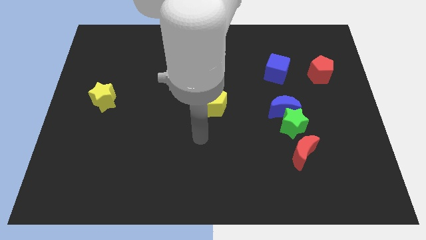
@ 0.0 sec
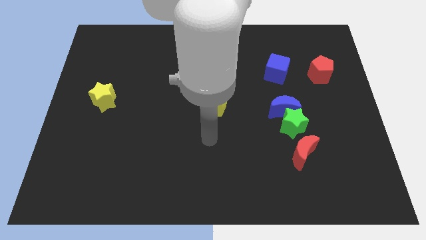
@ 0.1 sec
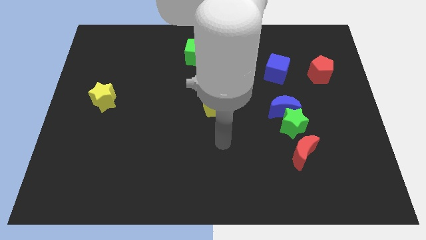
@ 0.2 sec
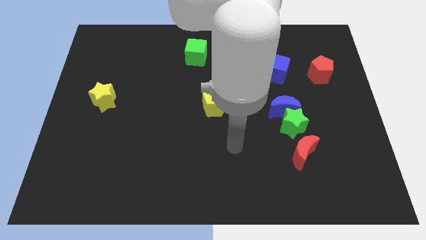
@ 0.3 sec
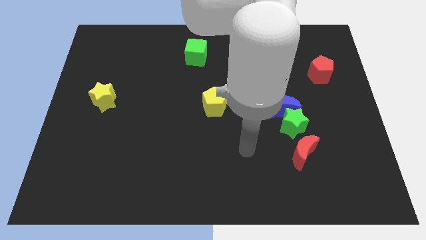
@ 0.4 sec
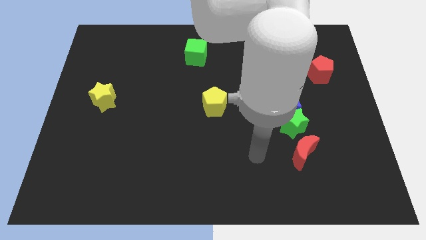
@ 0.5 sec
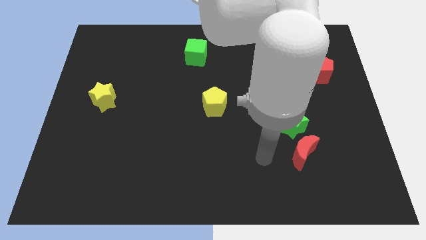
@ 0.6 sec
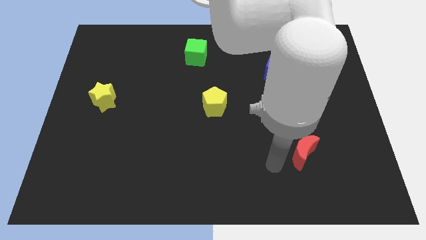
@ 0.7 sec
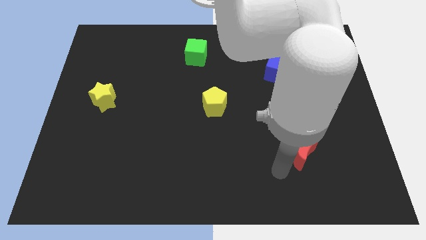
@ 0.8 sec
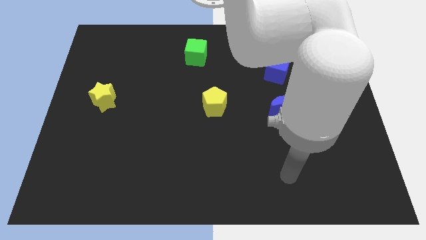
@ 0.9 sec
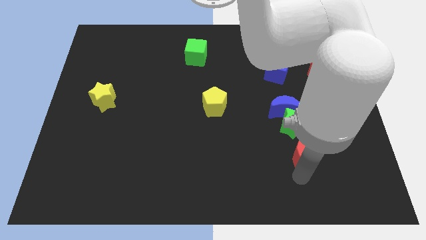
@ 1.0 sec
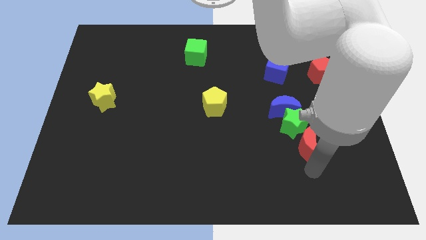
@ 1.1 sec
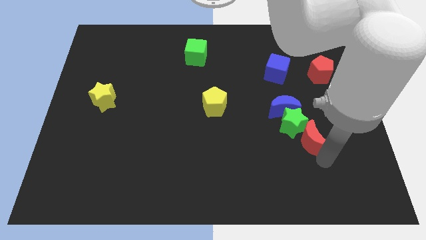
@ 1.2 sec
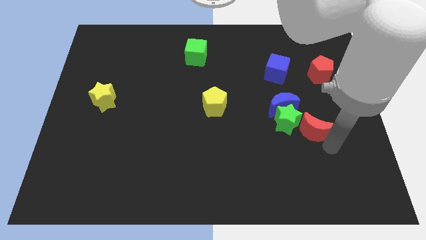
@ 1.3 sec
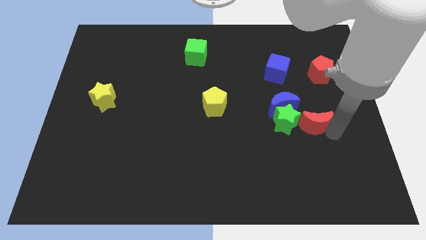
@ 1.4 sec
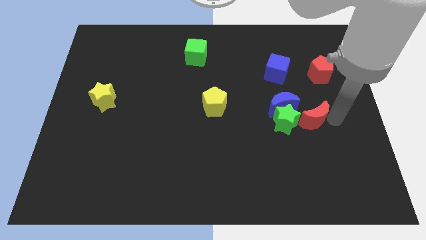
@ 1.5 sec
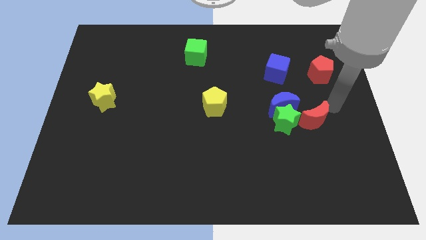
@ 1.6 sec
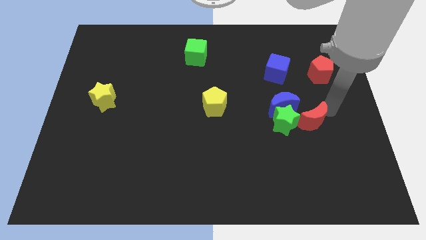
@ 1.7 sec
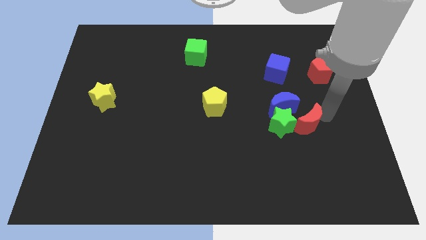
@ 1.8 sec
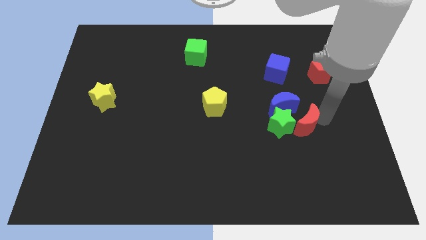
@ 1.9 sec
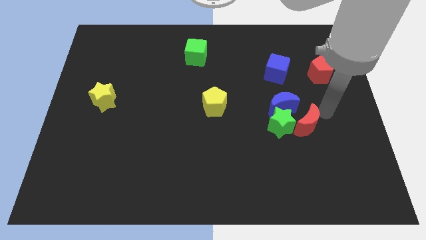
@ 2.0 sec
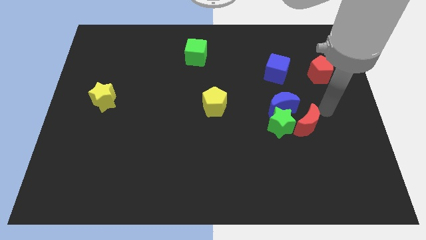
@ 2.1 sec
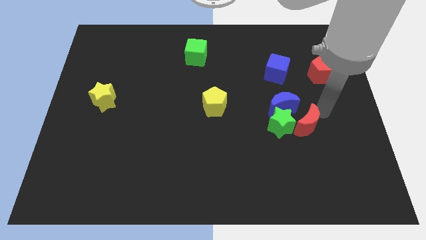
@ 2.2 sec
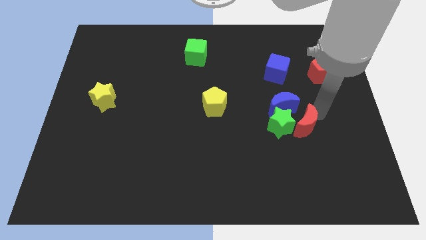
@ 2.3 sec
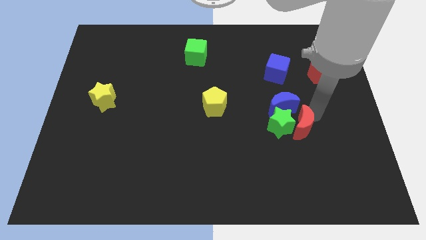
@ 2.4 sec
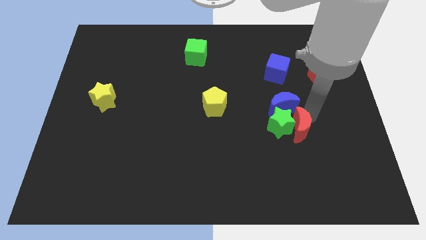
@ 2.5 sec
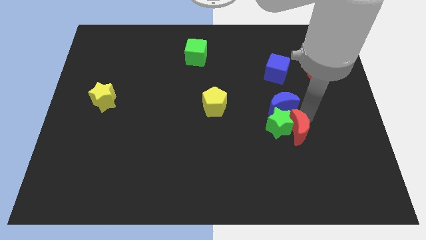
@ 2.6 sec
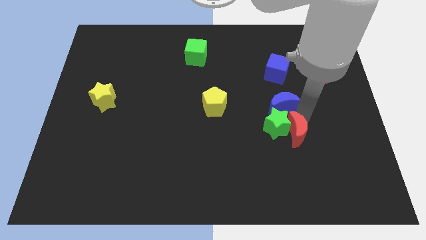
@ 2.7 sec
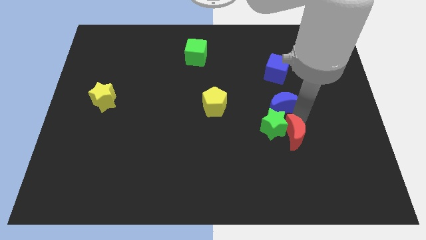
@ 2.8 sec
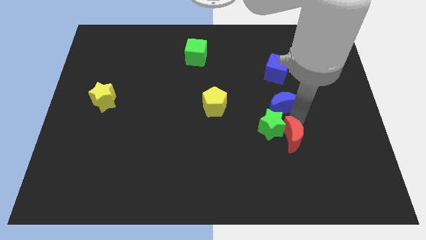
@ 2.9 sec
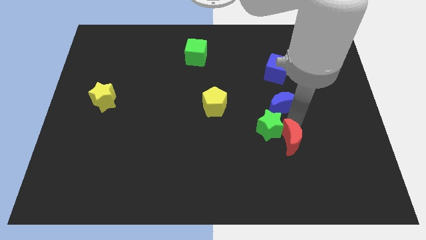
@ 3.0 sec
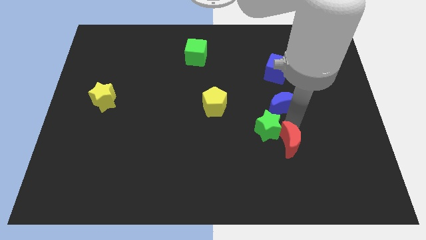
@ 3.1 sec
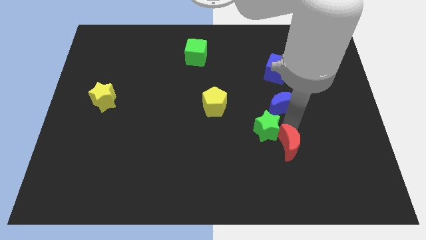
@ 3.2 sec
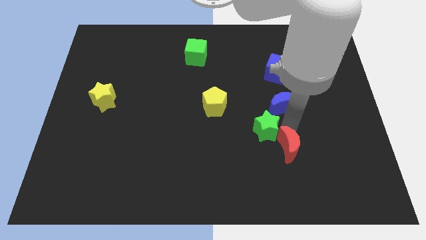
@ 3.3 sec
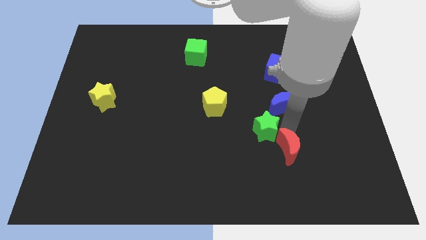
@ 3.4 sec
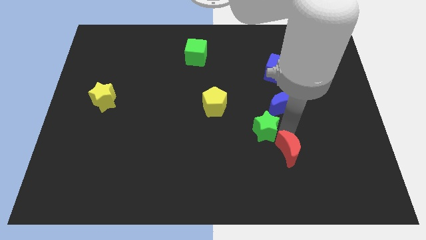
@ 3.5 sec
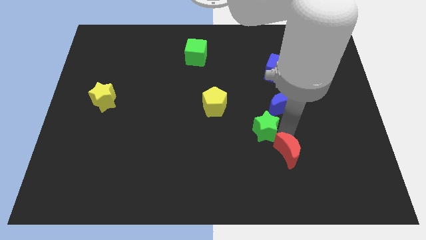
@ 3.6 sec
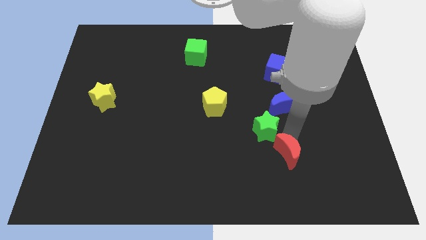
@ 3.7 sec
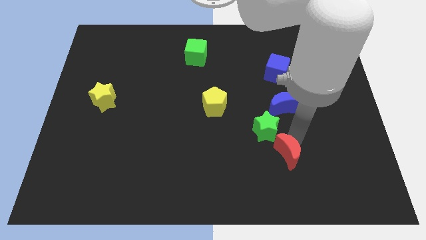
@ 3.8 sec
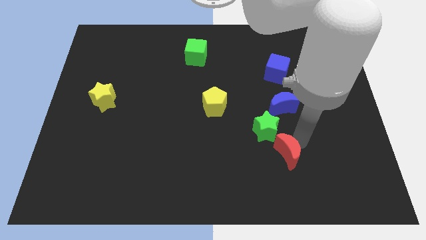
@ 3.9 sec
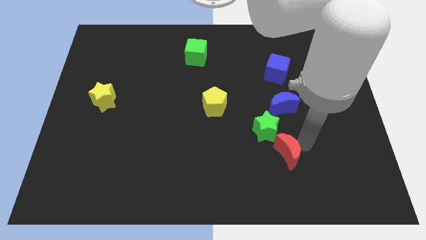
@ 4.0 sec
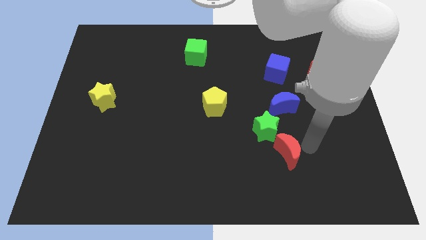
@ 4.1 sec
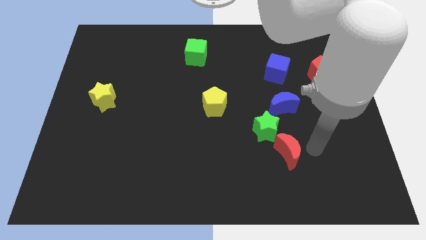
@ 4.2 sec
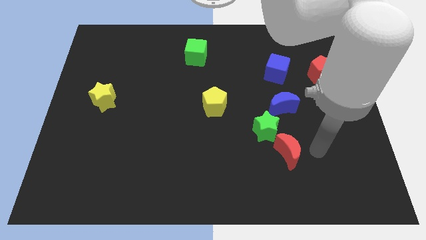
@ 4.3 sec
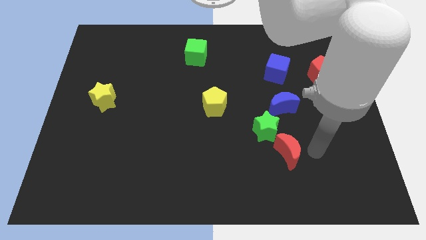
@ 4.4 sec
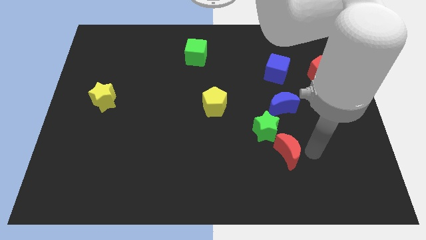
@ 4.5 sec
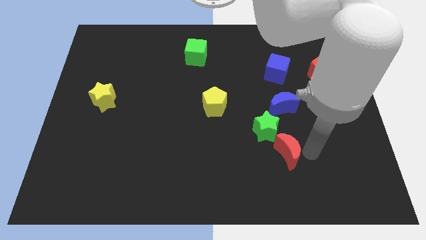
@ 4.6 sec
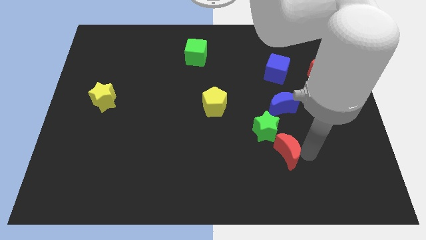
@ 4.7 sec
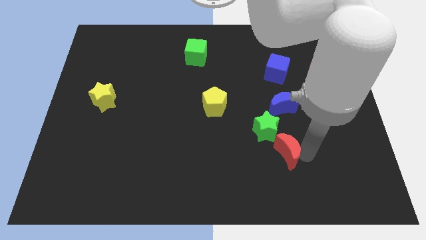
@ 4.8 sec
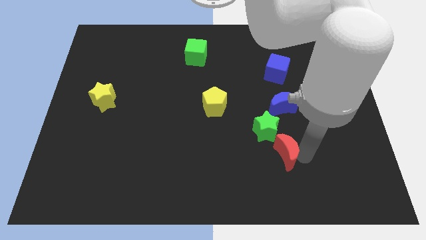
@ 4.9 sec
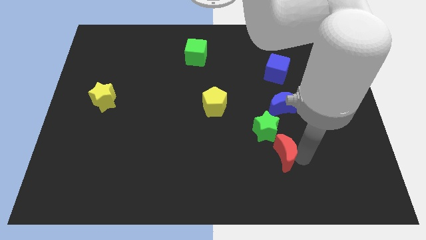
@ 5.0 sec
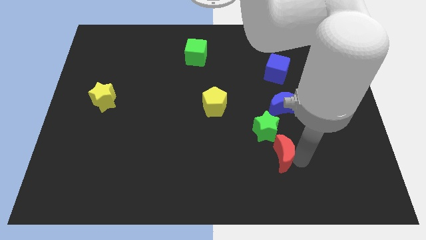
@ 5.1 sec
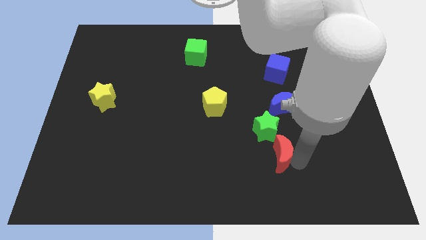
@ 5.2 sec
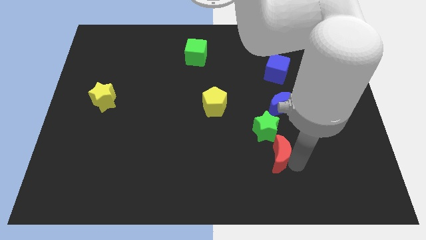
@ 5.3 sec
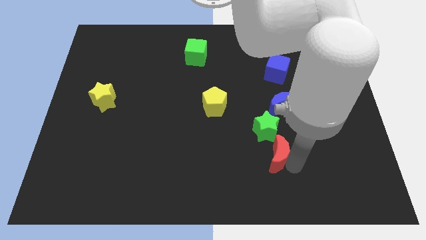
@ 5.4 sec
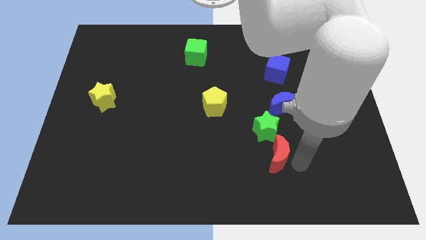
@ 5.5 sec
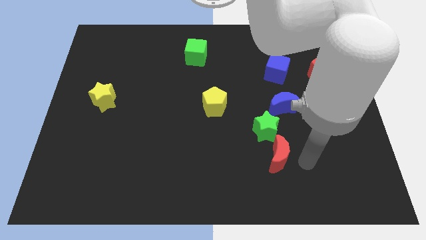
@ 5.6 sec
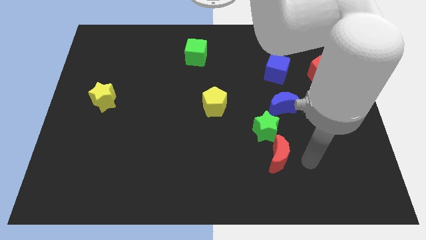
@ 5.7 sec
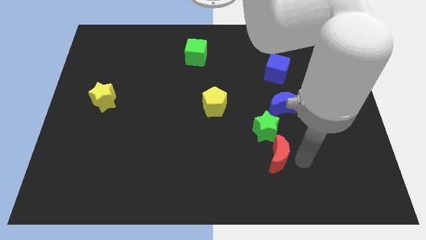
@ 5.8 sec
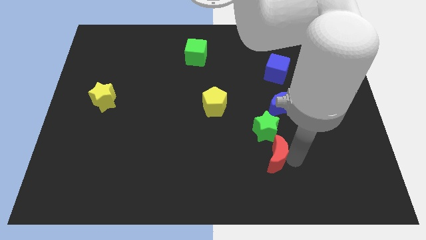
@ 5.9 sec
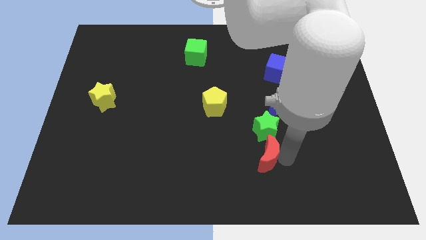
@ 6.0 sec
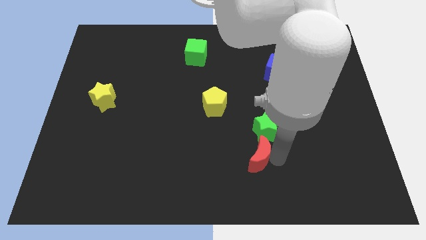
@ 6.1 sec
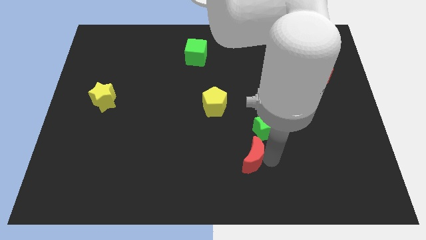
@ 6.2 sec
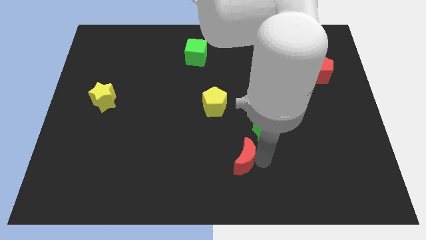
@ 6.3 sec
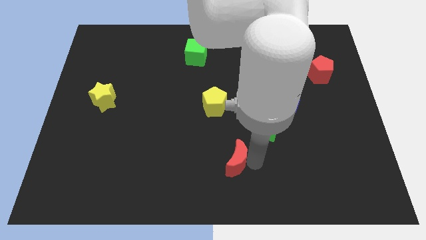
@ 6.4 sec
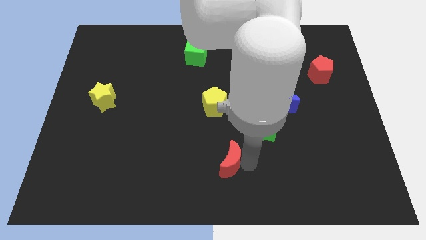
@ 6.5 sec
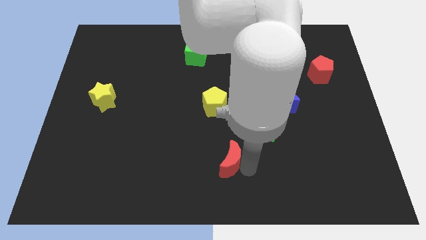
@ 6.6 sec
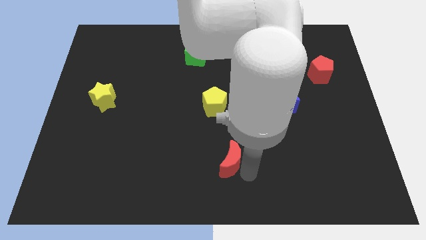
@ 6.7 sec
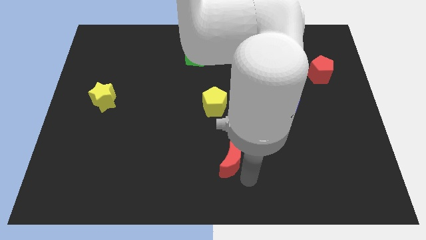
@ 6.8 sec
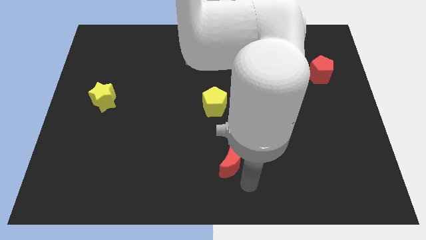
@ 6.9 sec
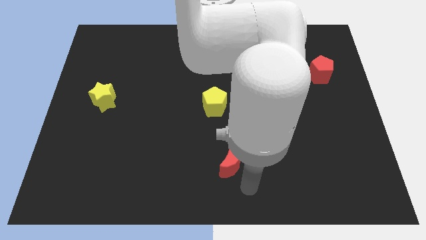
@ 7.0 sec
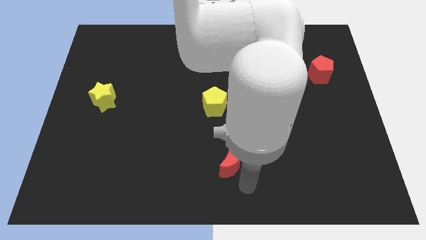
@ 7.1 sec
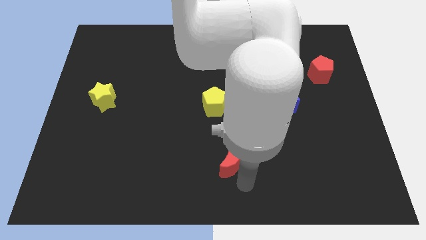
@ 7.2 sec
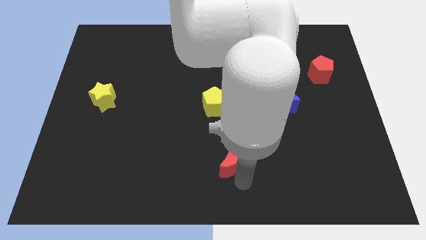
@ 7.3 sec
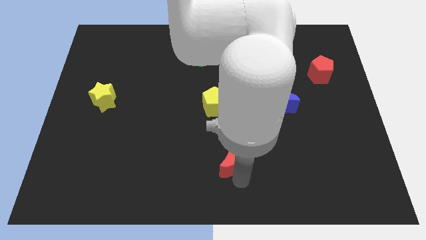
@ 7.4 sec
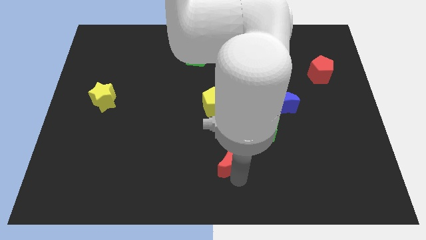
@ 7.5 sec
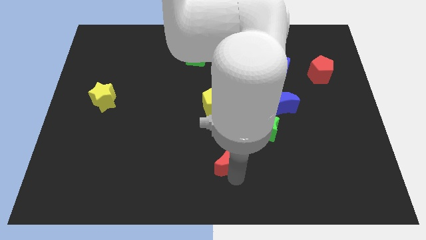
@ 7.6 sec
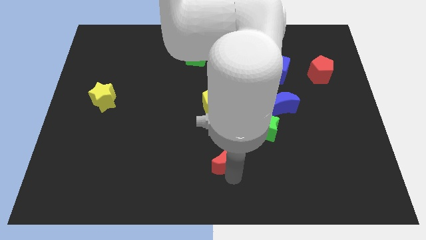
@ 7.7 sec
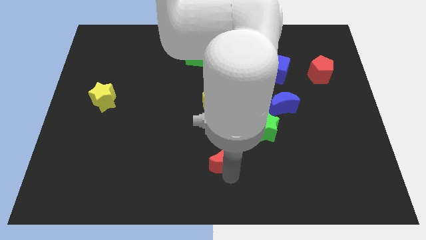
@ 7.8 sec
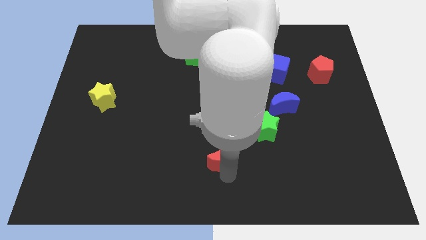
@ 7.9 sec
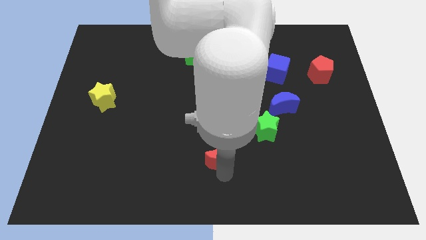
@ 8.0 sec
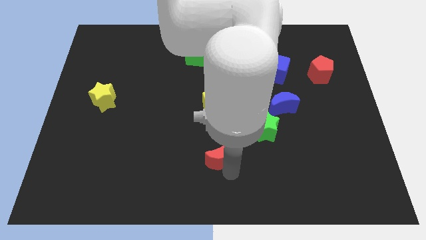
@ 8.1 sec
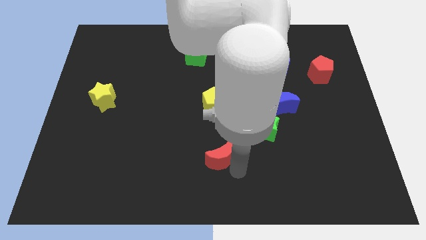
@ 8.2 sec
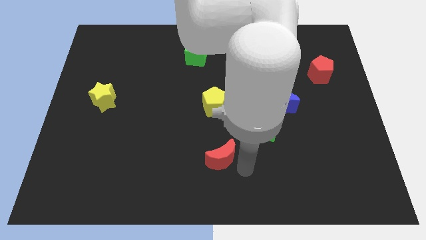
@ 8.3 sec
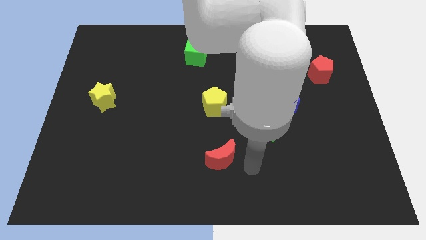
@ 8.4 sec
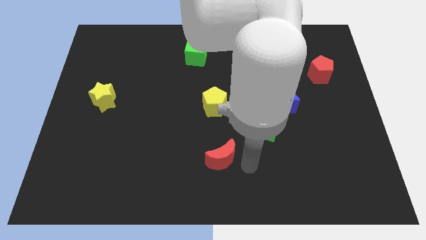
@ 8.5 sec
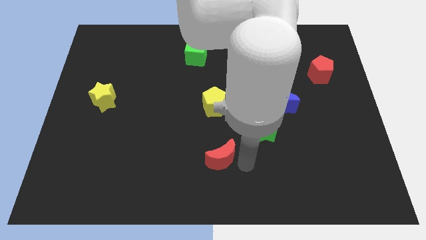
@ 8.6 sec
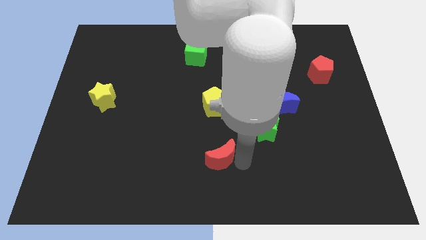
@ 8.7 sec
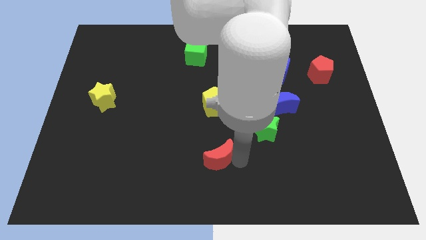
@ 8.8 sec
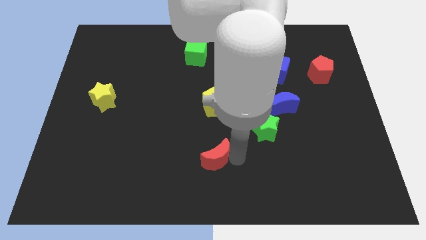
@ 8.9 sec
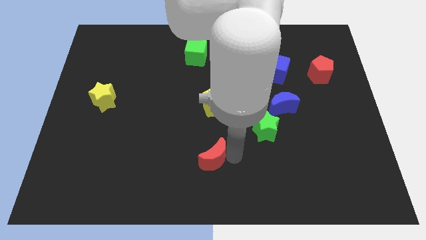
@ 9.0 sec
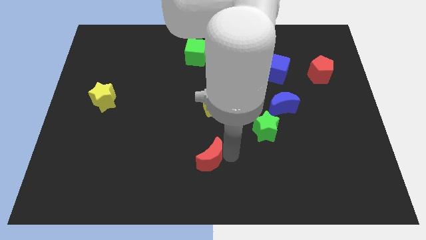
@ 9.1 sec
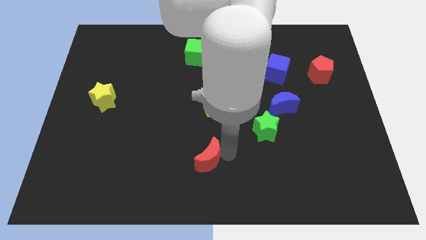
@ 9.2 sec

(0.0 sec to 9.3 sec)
slide the red moon to the left
